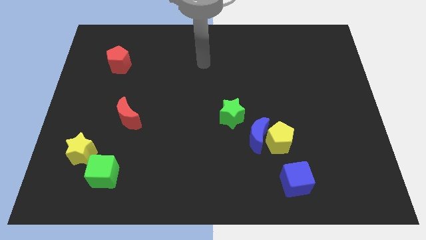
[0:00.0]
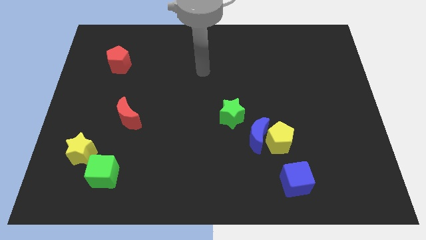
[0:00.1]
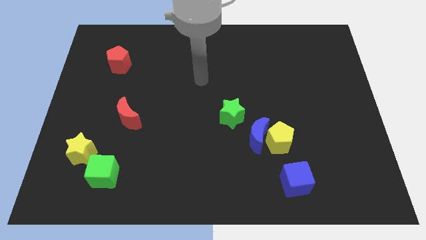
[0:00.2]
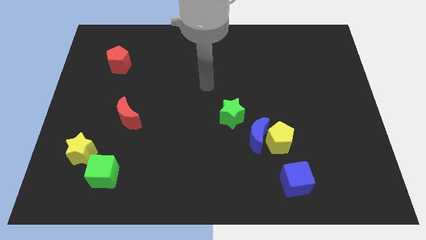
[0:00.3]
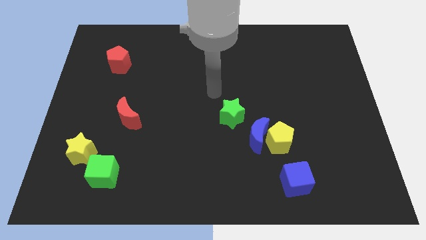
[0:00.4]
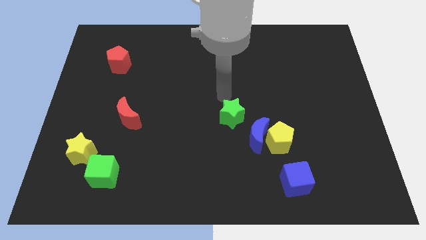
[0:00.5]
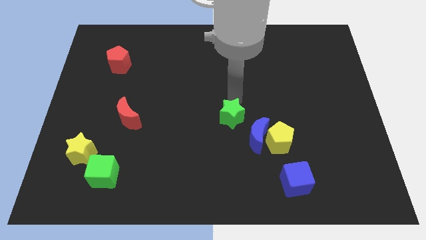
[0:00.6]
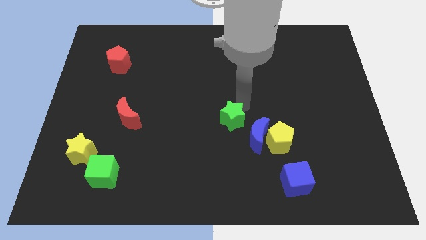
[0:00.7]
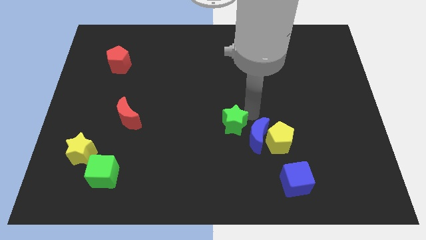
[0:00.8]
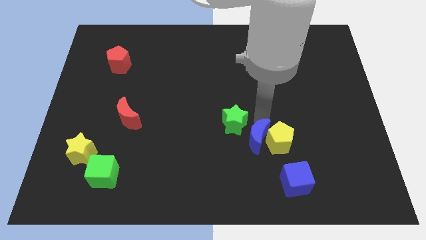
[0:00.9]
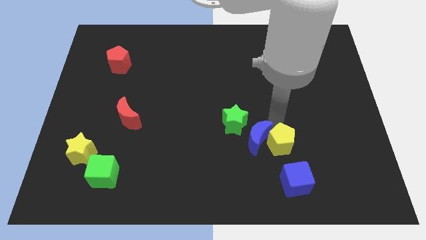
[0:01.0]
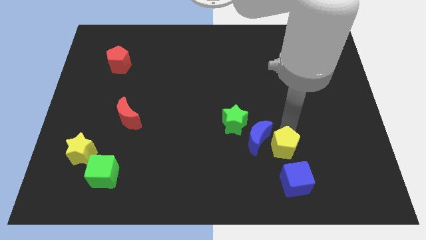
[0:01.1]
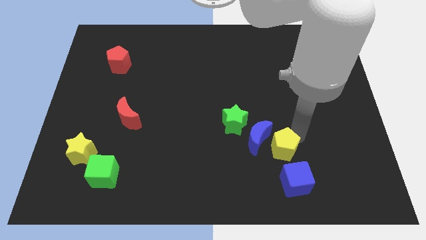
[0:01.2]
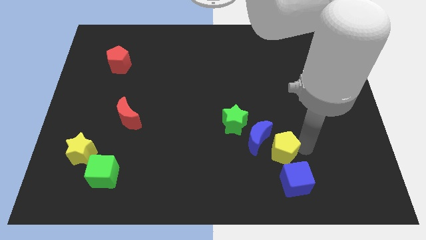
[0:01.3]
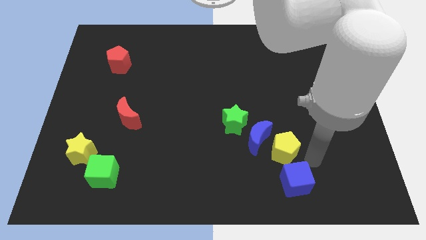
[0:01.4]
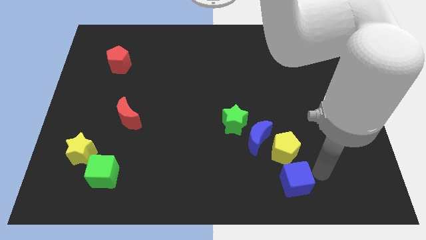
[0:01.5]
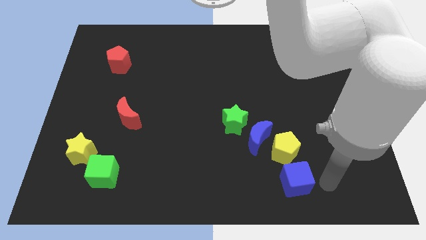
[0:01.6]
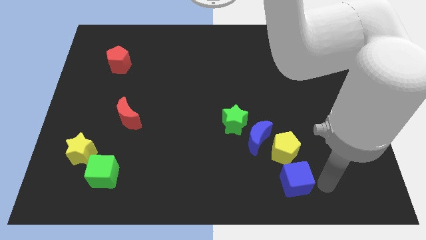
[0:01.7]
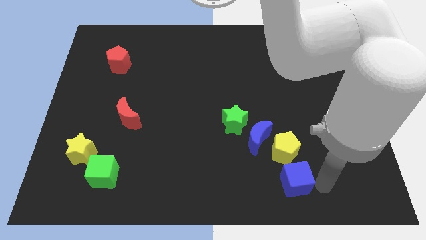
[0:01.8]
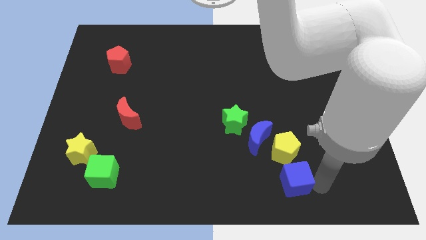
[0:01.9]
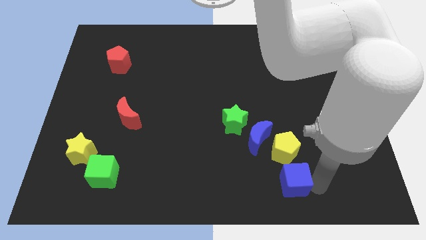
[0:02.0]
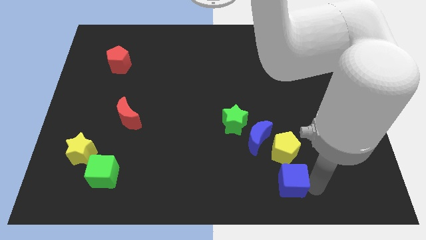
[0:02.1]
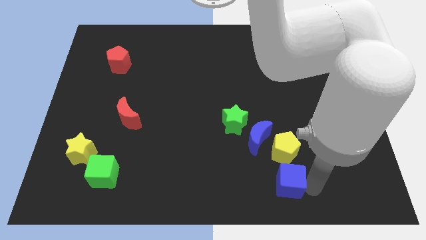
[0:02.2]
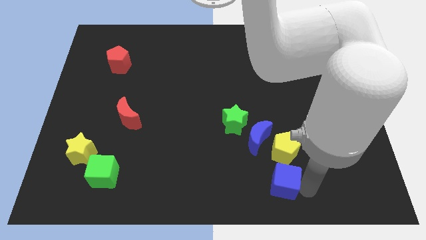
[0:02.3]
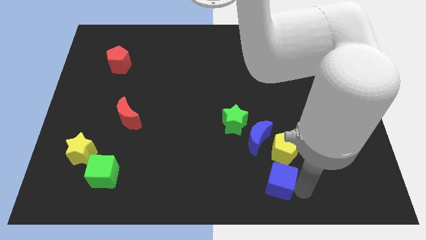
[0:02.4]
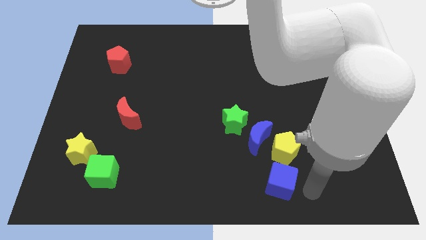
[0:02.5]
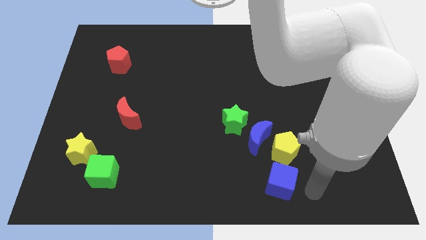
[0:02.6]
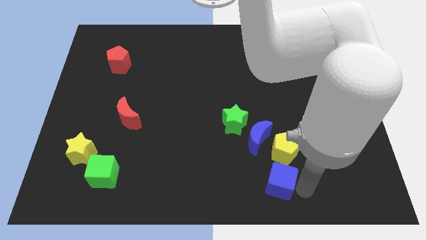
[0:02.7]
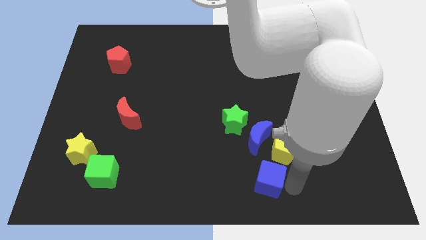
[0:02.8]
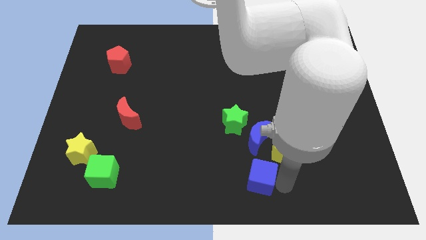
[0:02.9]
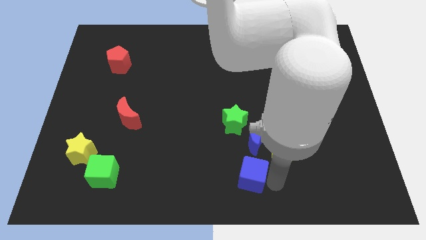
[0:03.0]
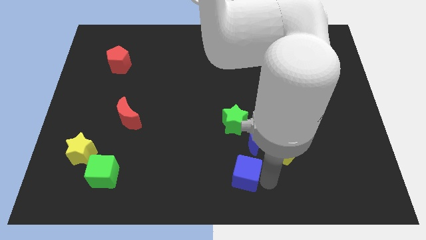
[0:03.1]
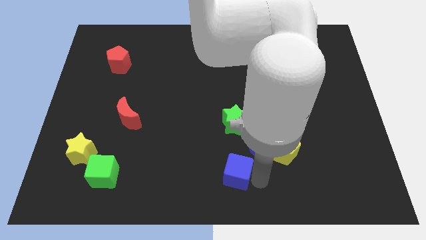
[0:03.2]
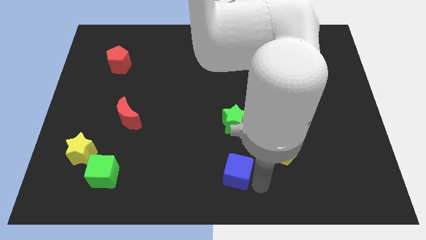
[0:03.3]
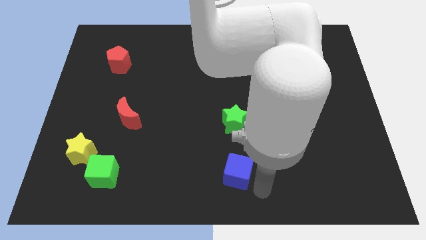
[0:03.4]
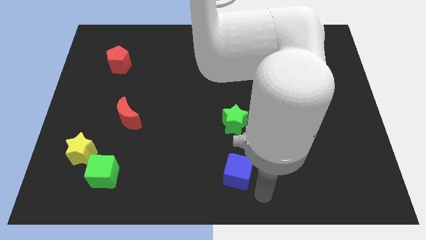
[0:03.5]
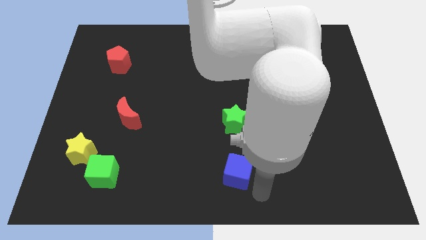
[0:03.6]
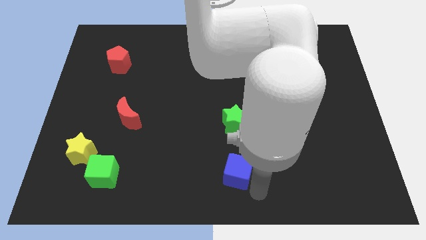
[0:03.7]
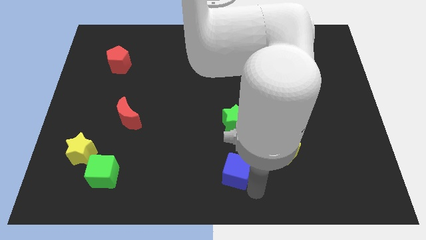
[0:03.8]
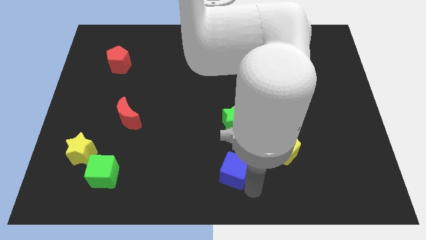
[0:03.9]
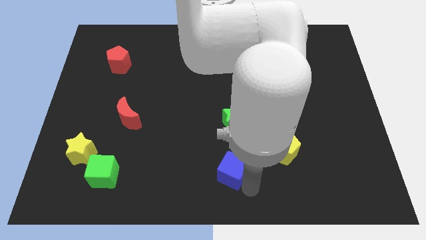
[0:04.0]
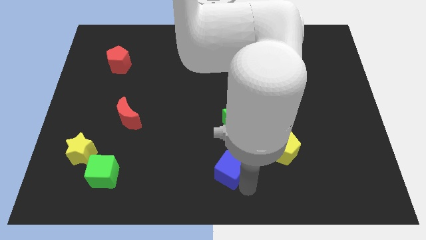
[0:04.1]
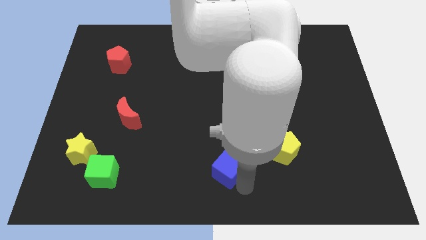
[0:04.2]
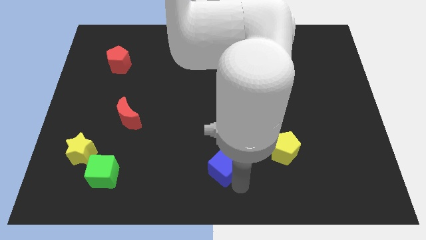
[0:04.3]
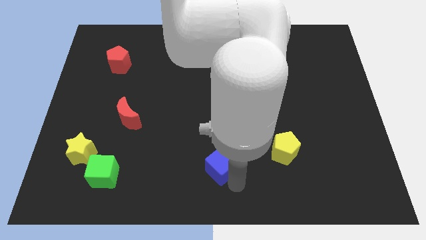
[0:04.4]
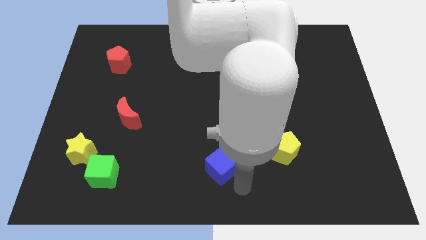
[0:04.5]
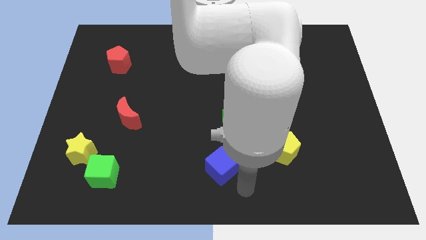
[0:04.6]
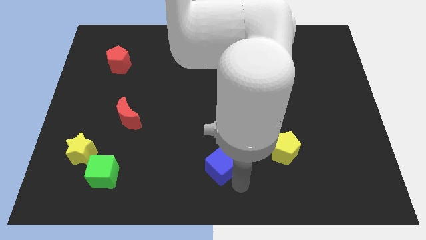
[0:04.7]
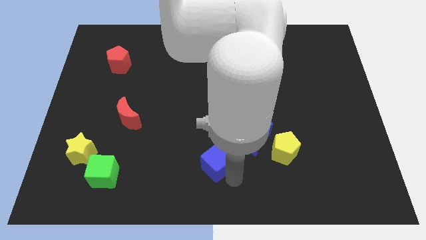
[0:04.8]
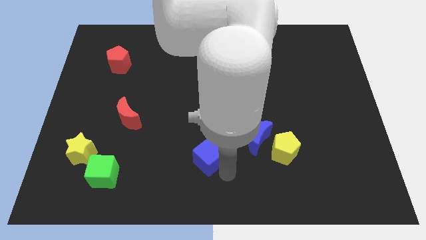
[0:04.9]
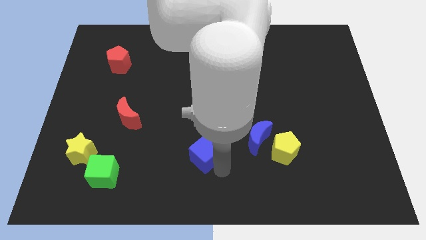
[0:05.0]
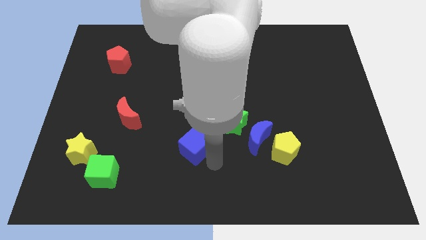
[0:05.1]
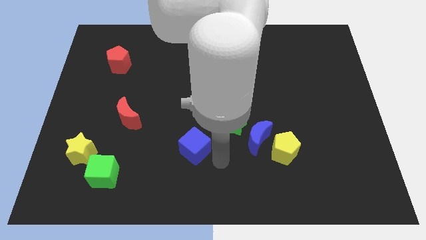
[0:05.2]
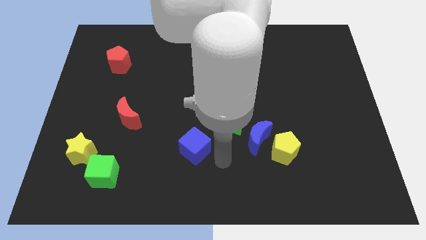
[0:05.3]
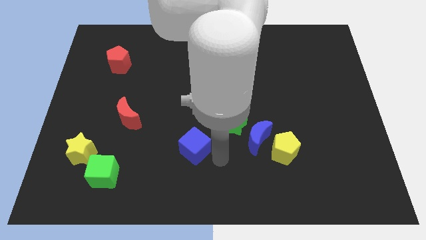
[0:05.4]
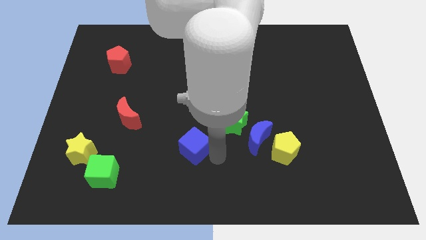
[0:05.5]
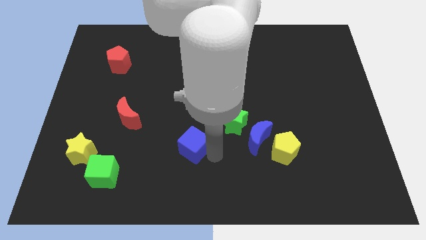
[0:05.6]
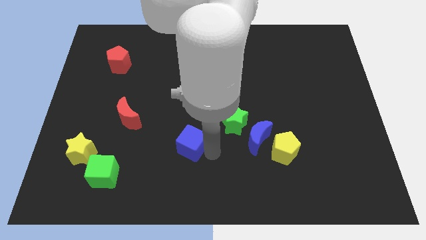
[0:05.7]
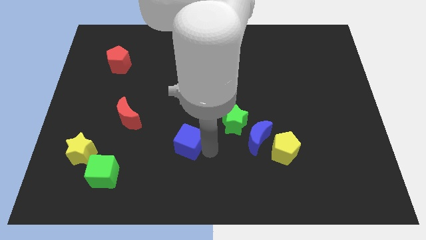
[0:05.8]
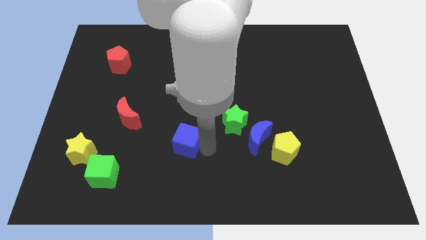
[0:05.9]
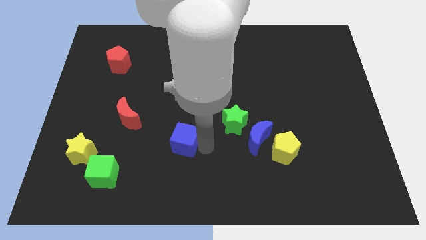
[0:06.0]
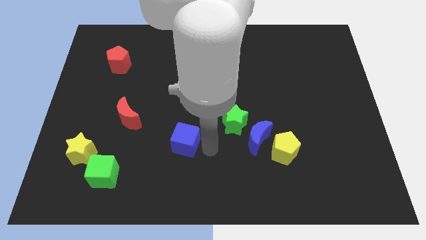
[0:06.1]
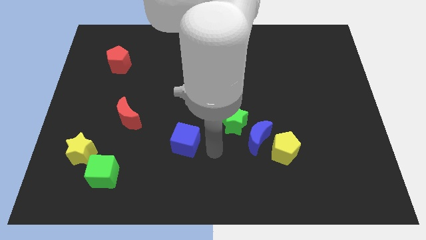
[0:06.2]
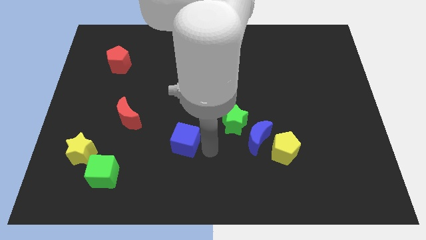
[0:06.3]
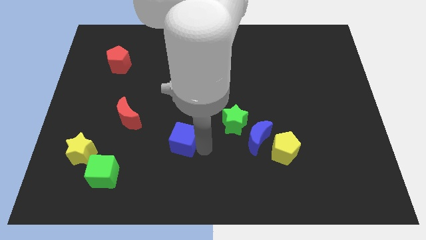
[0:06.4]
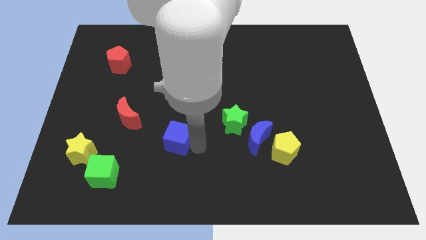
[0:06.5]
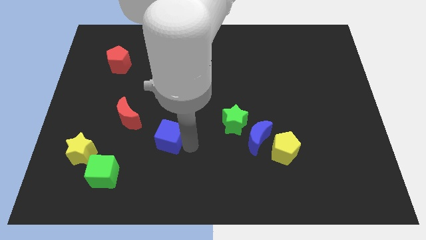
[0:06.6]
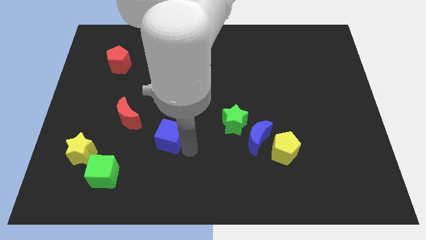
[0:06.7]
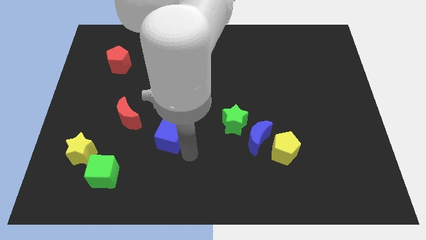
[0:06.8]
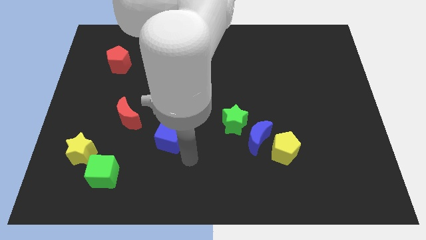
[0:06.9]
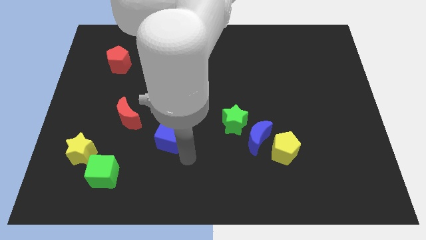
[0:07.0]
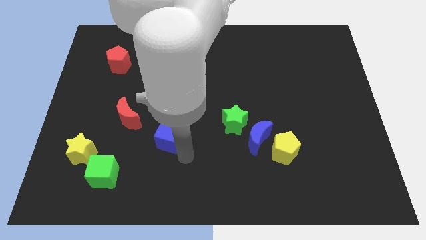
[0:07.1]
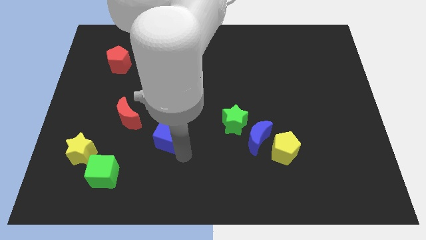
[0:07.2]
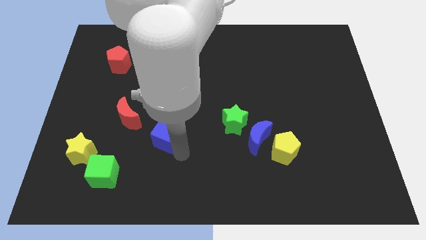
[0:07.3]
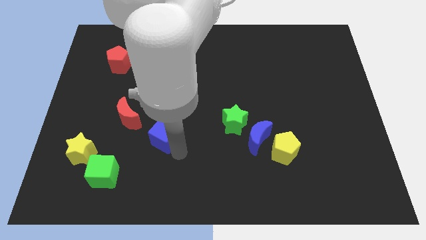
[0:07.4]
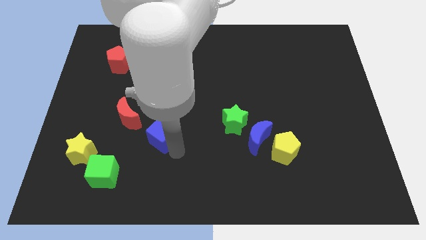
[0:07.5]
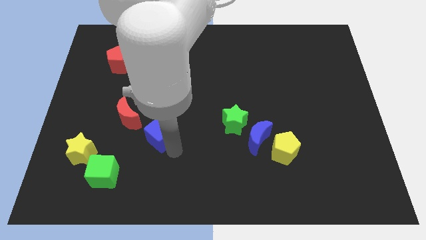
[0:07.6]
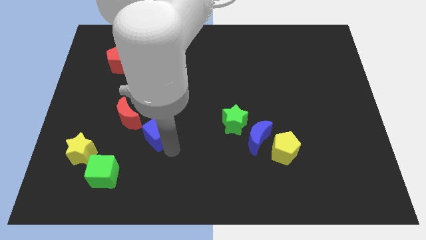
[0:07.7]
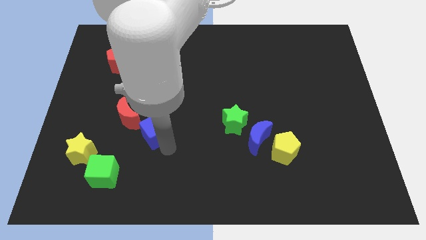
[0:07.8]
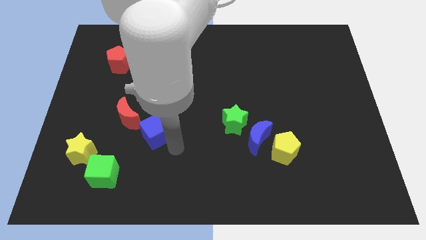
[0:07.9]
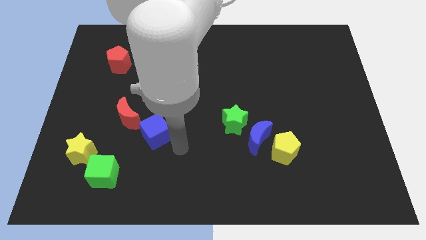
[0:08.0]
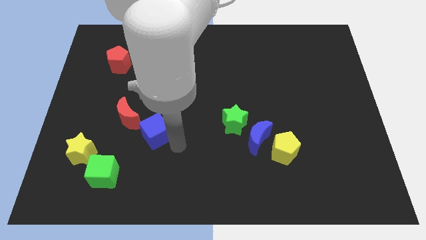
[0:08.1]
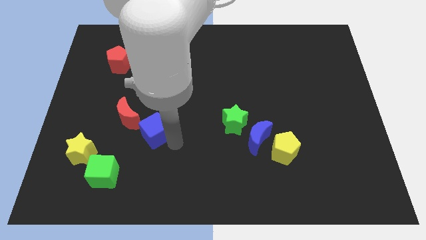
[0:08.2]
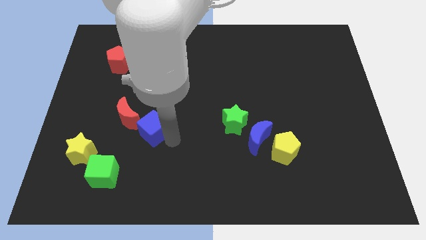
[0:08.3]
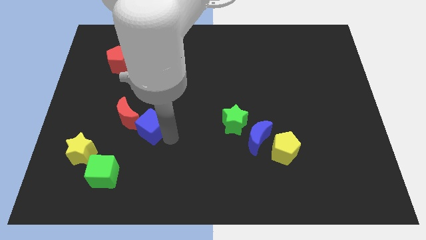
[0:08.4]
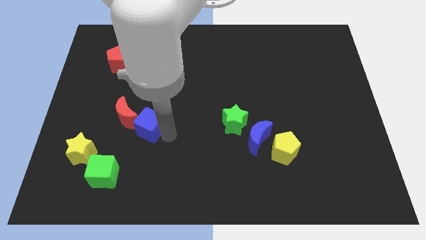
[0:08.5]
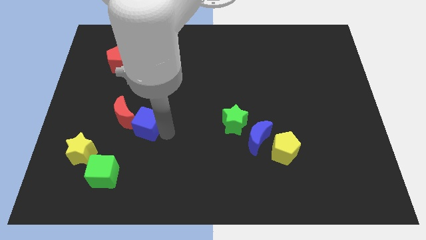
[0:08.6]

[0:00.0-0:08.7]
push the blue cube next to the red moon
